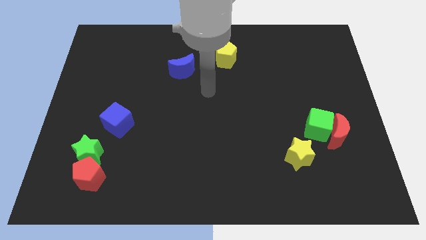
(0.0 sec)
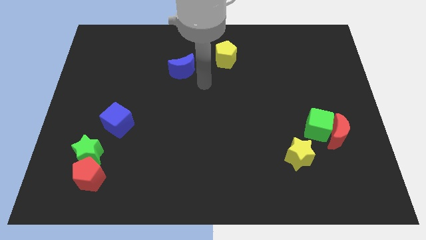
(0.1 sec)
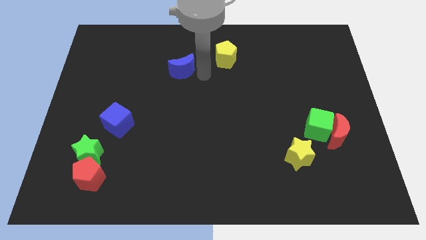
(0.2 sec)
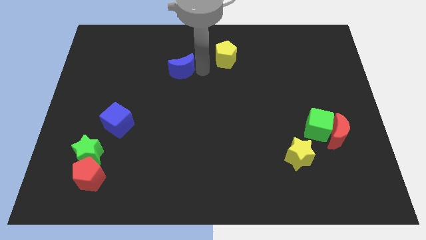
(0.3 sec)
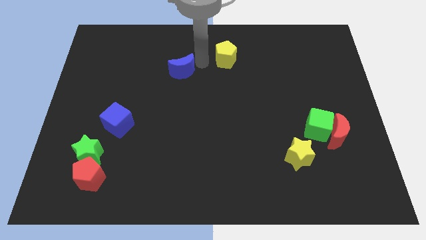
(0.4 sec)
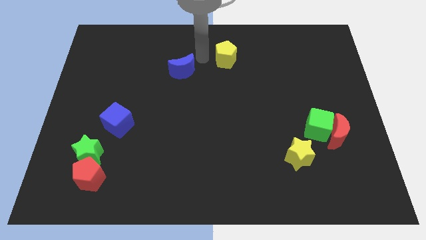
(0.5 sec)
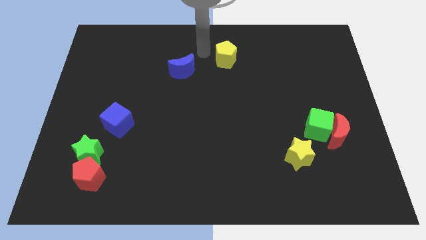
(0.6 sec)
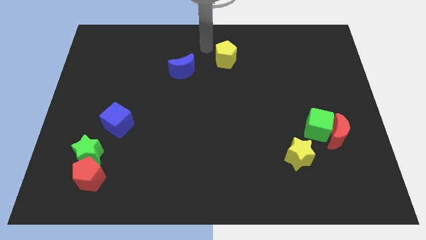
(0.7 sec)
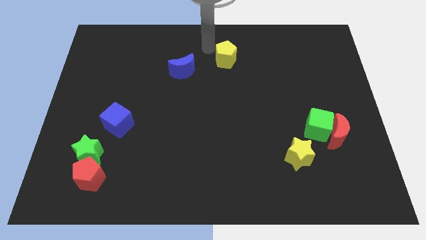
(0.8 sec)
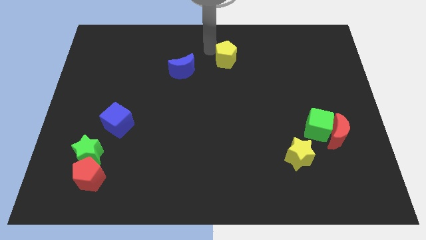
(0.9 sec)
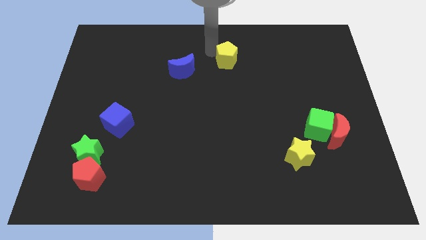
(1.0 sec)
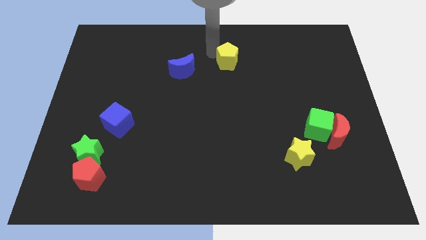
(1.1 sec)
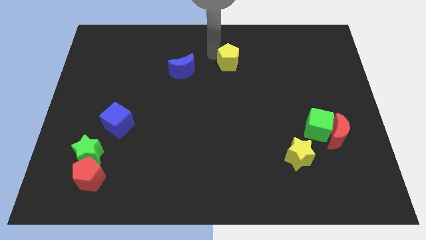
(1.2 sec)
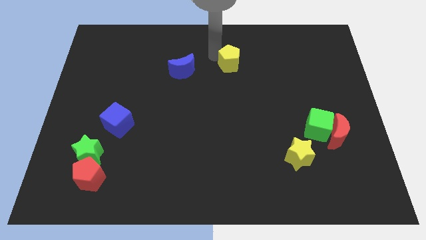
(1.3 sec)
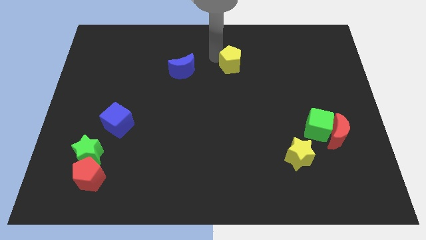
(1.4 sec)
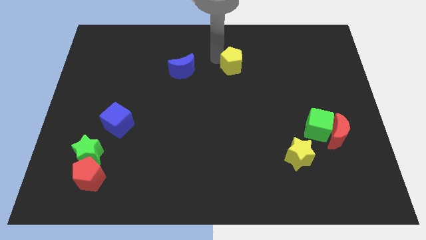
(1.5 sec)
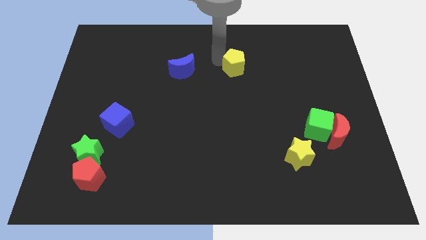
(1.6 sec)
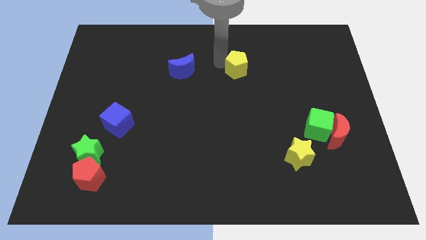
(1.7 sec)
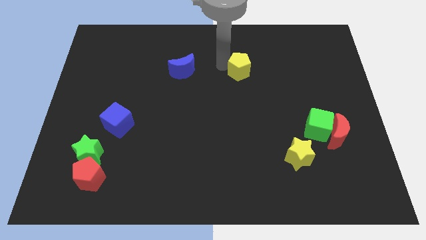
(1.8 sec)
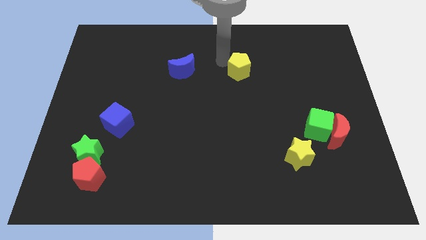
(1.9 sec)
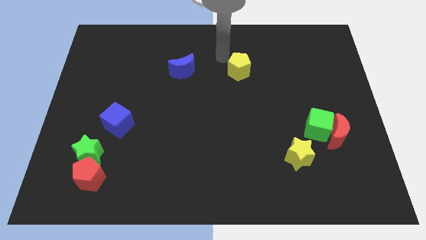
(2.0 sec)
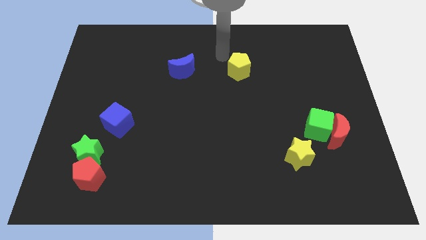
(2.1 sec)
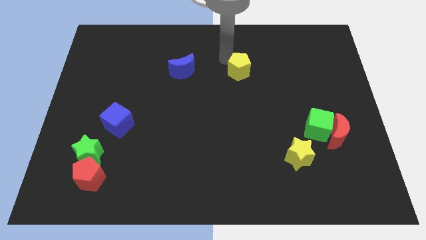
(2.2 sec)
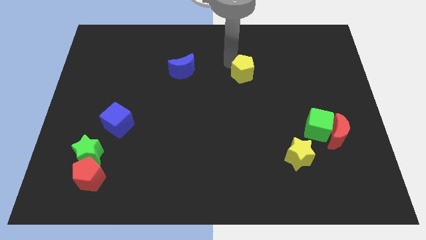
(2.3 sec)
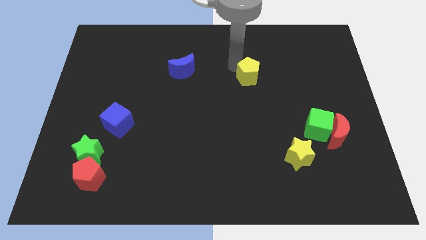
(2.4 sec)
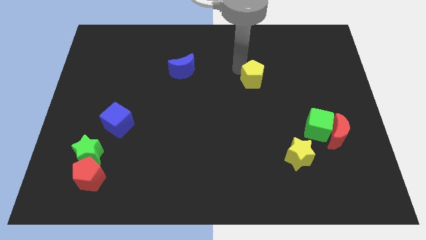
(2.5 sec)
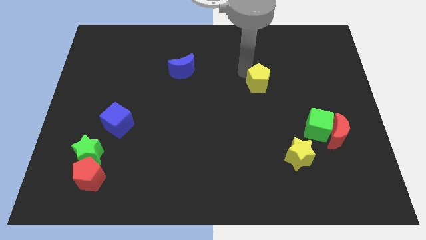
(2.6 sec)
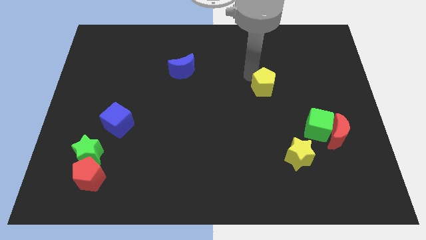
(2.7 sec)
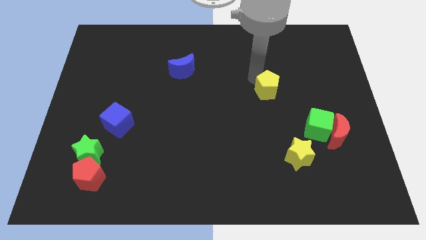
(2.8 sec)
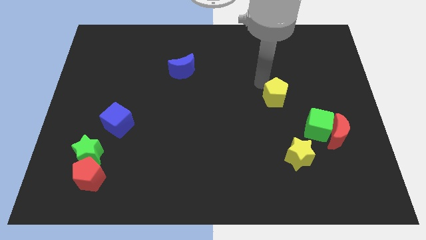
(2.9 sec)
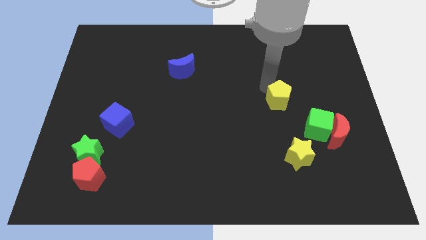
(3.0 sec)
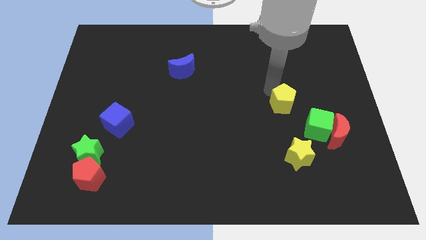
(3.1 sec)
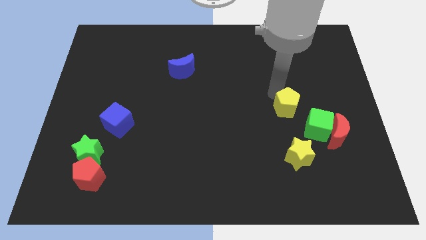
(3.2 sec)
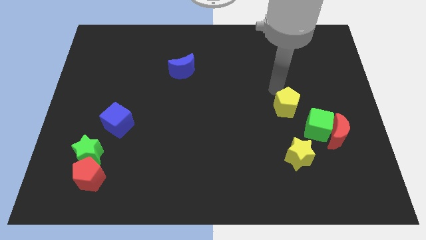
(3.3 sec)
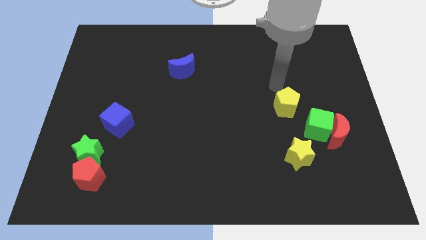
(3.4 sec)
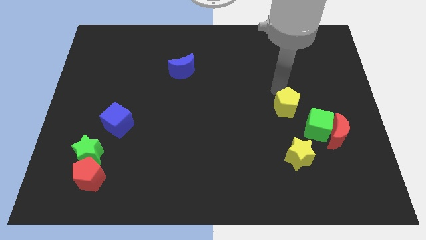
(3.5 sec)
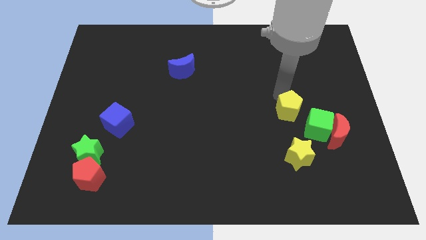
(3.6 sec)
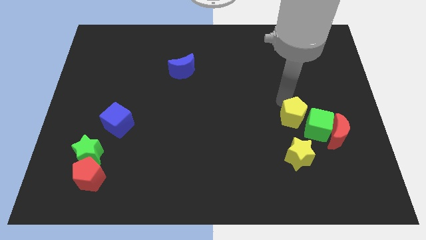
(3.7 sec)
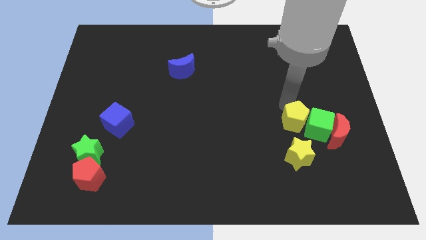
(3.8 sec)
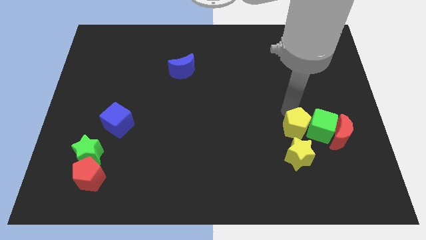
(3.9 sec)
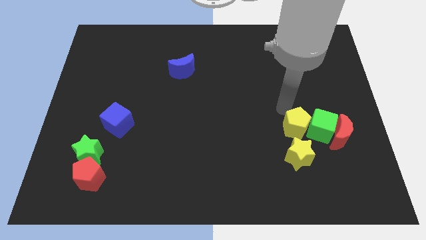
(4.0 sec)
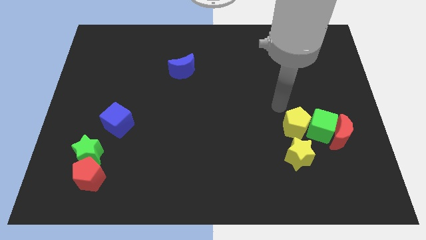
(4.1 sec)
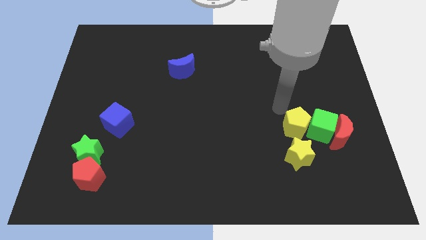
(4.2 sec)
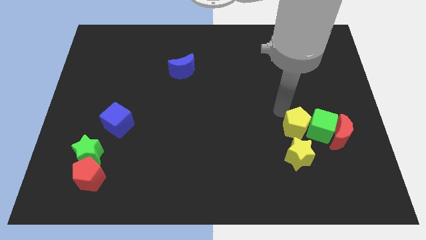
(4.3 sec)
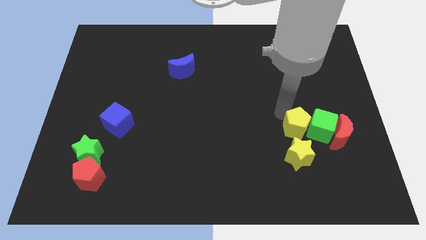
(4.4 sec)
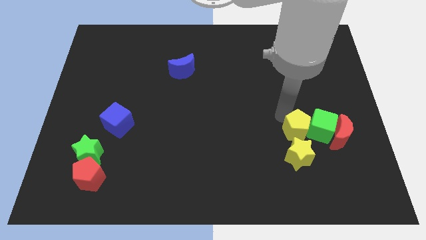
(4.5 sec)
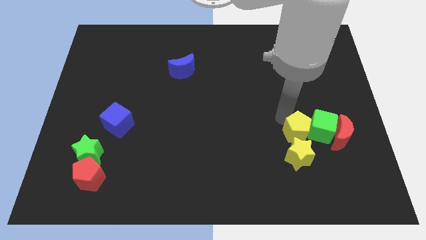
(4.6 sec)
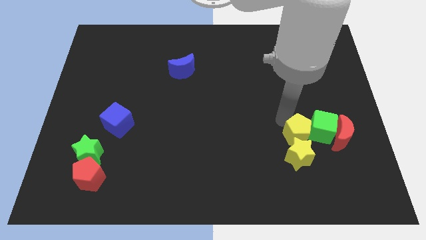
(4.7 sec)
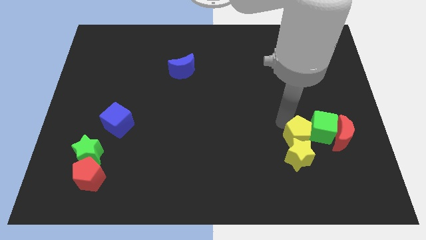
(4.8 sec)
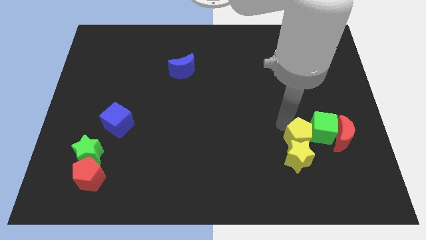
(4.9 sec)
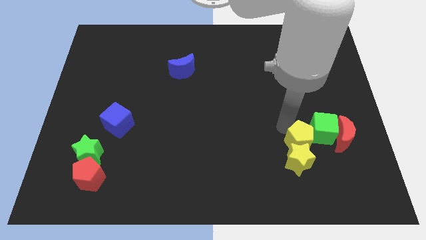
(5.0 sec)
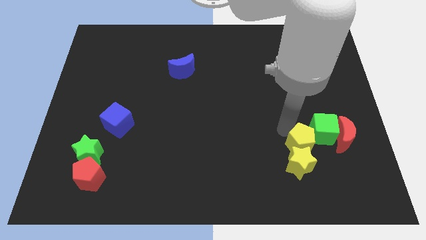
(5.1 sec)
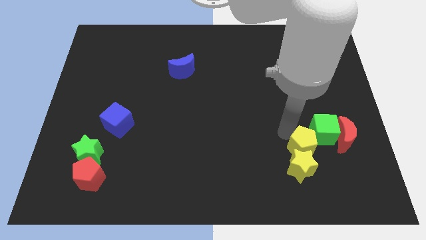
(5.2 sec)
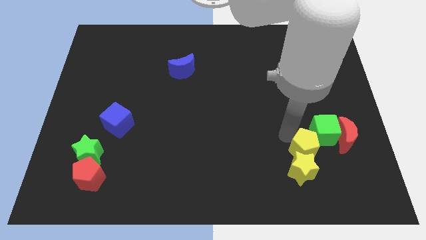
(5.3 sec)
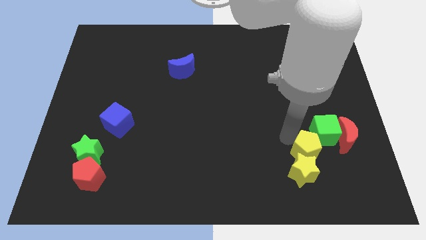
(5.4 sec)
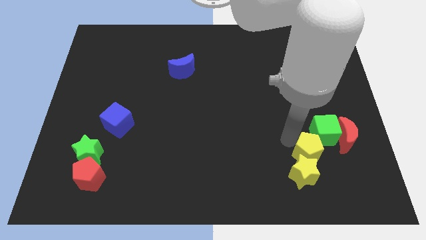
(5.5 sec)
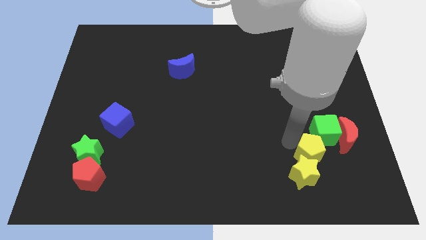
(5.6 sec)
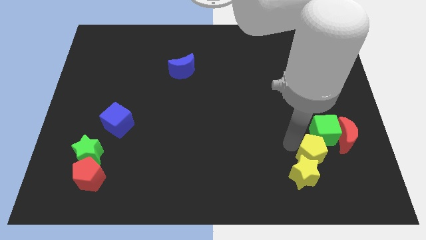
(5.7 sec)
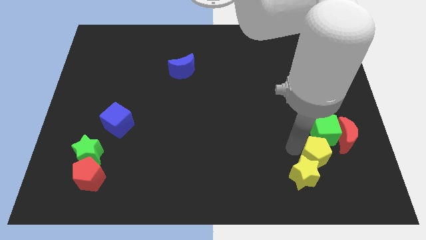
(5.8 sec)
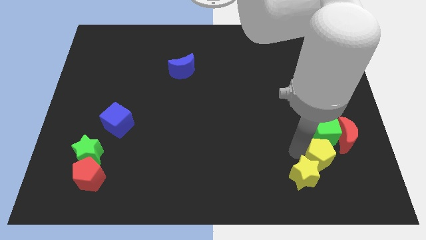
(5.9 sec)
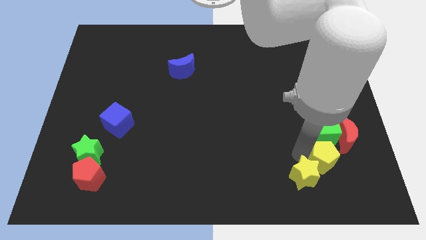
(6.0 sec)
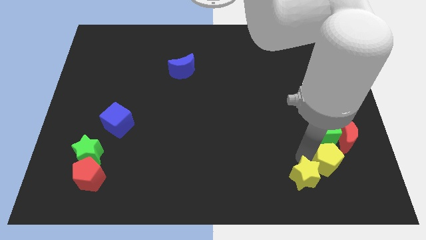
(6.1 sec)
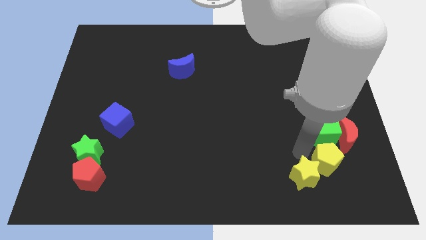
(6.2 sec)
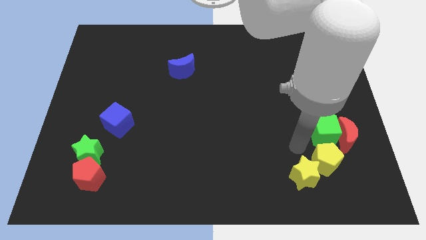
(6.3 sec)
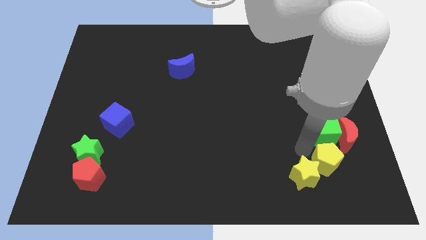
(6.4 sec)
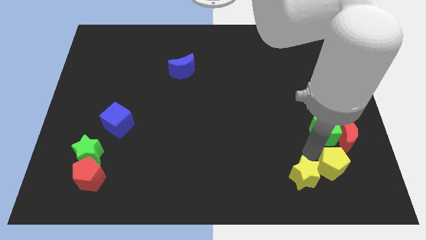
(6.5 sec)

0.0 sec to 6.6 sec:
slide the yellow pentagon to the bottom side of the red moon
